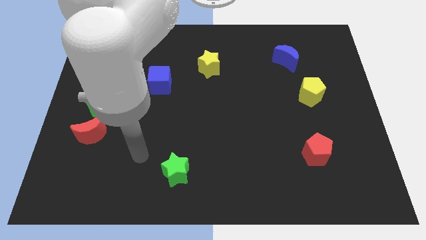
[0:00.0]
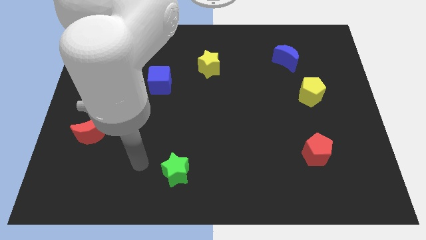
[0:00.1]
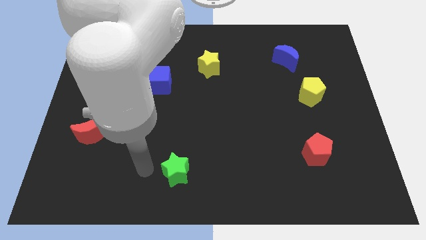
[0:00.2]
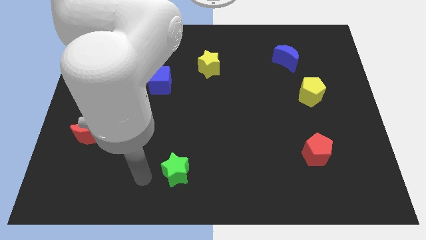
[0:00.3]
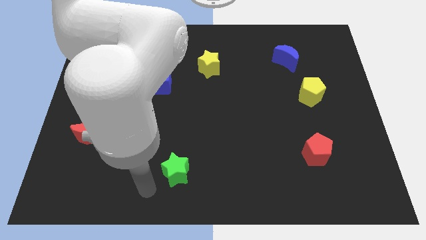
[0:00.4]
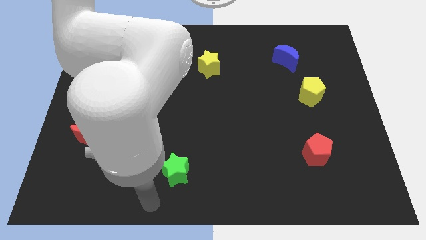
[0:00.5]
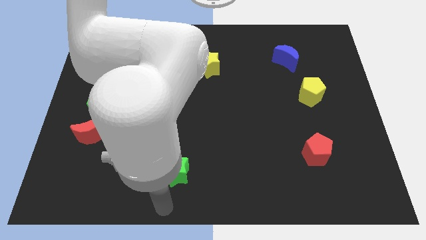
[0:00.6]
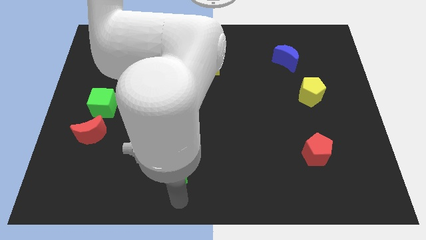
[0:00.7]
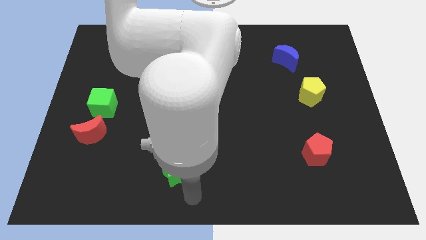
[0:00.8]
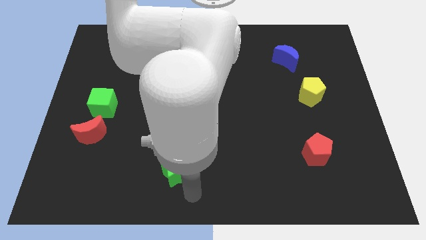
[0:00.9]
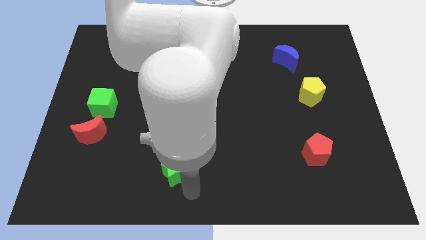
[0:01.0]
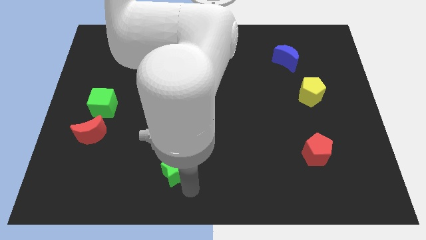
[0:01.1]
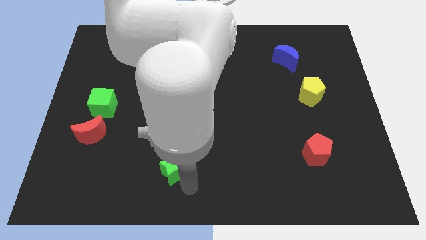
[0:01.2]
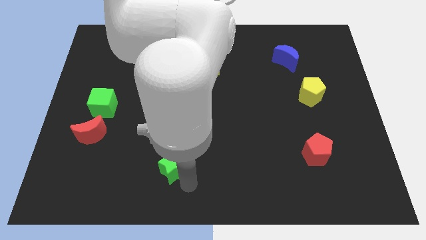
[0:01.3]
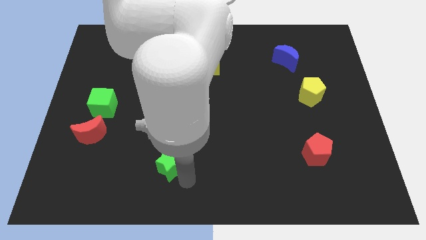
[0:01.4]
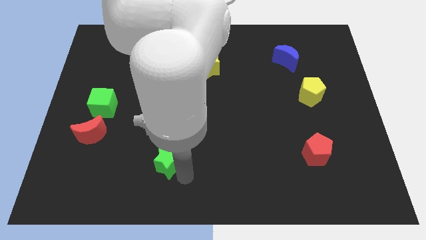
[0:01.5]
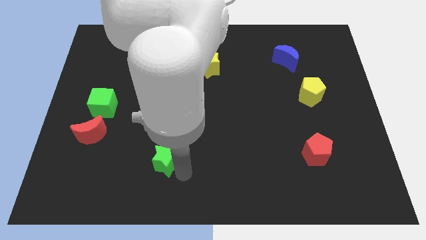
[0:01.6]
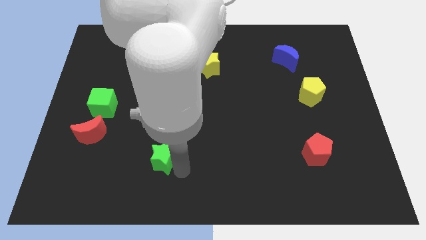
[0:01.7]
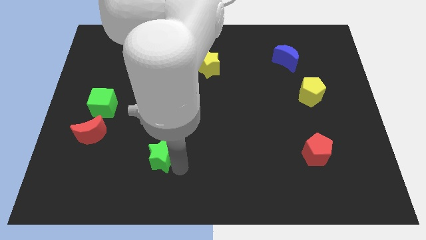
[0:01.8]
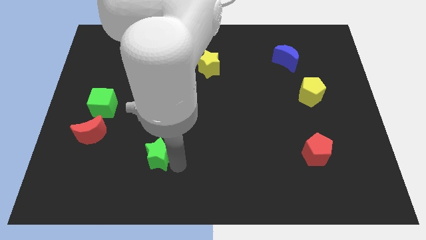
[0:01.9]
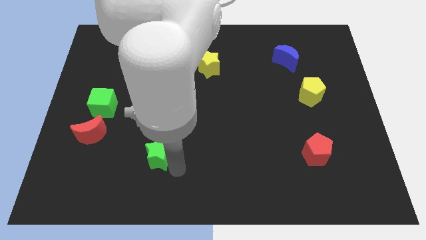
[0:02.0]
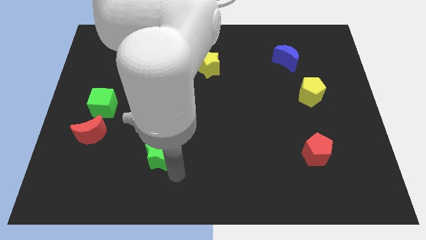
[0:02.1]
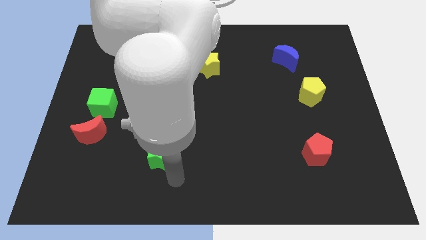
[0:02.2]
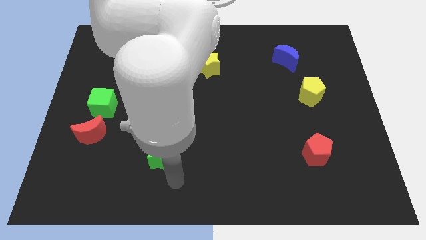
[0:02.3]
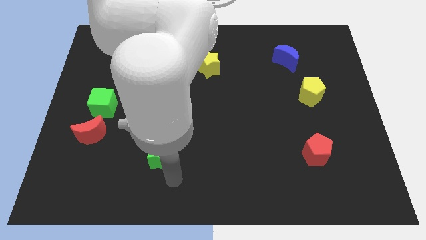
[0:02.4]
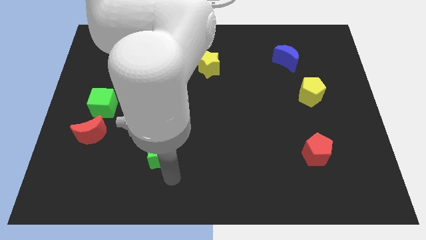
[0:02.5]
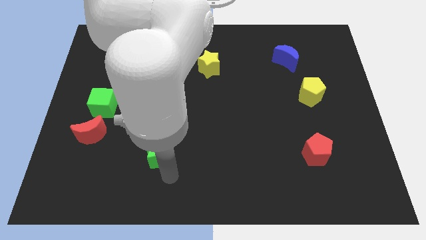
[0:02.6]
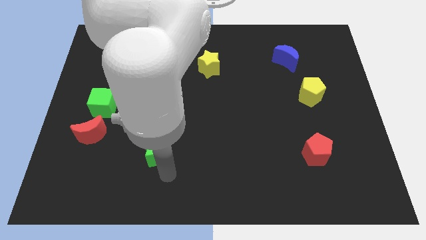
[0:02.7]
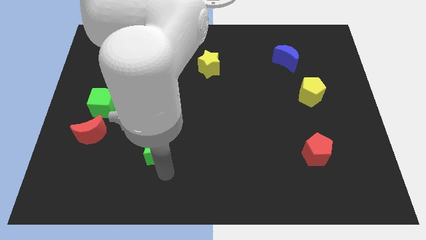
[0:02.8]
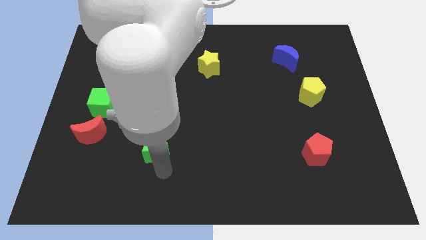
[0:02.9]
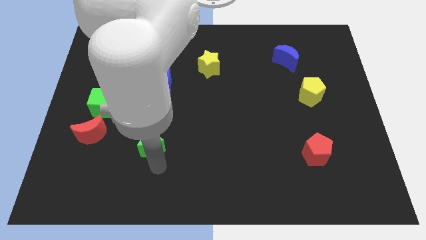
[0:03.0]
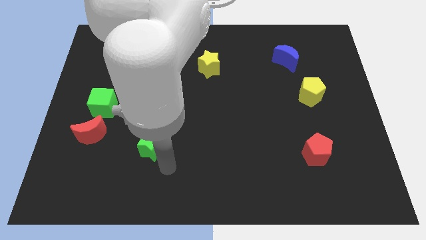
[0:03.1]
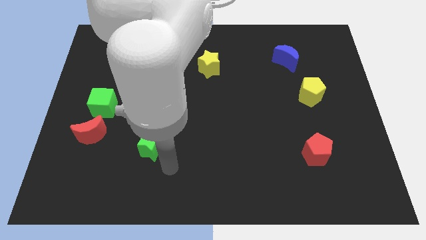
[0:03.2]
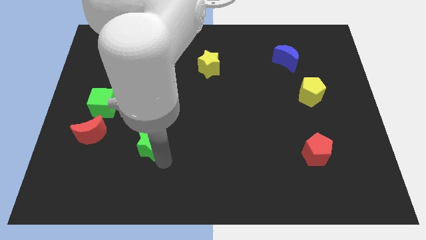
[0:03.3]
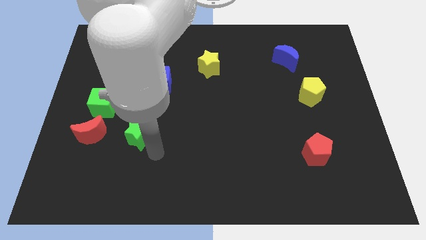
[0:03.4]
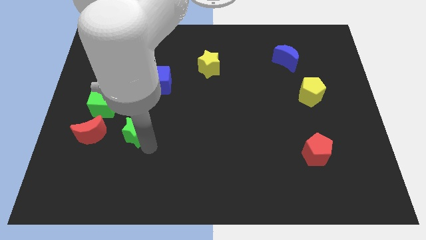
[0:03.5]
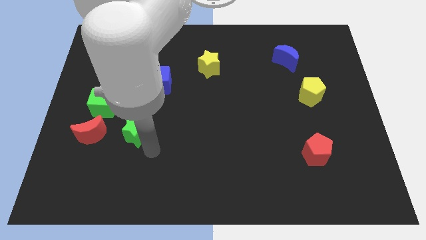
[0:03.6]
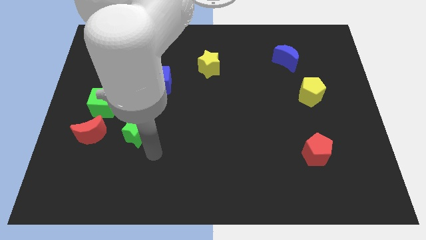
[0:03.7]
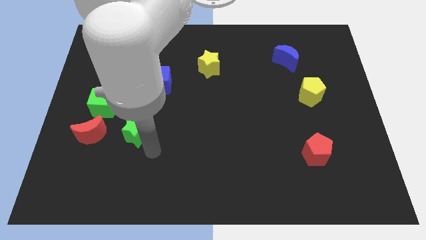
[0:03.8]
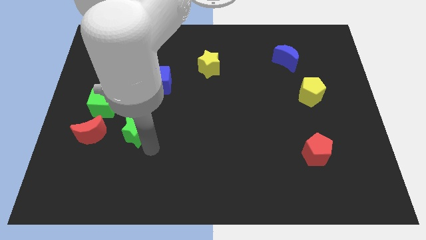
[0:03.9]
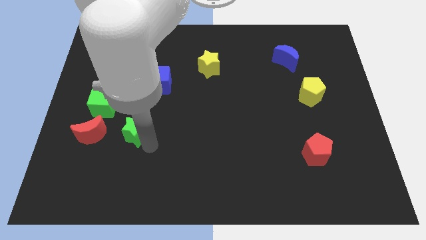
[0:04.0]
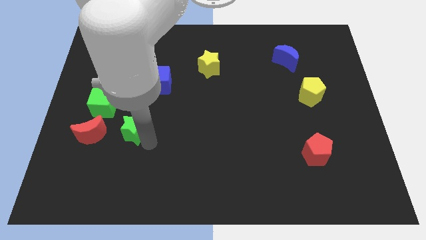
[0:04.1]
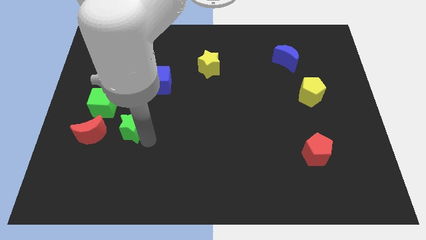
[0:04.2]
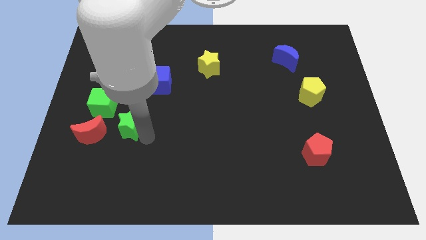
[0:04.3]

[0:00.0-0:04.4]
push the green star to the top right of the red moon

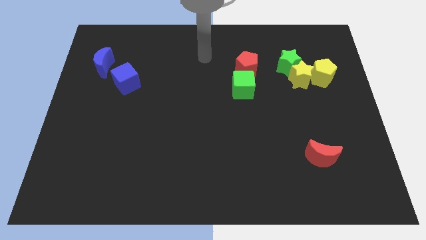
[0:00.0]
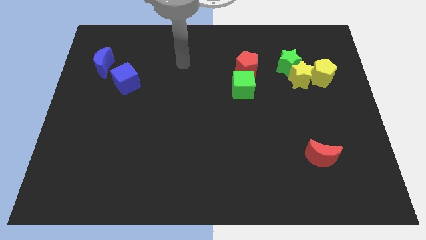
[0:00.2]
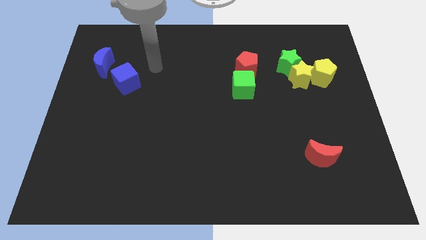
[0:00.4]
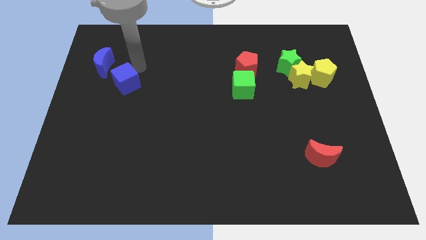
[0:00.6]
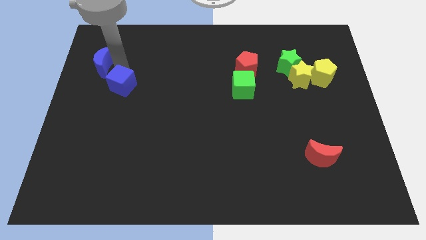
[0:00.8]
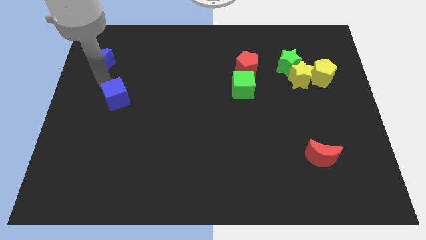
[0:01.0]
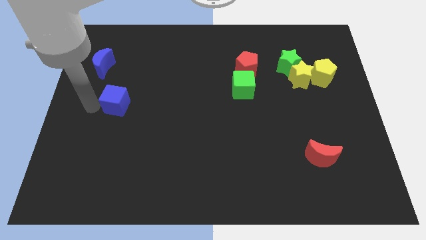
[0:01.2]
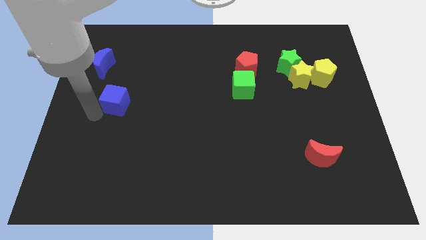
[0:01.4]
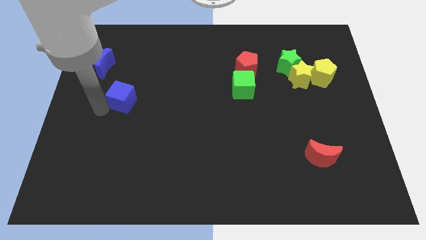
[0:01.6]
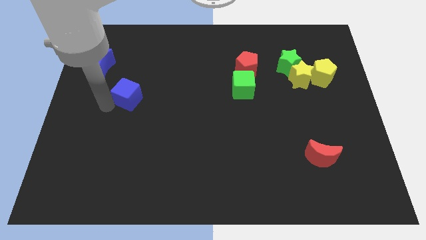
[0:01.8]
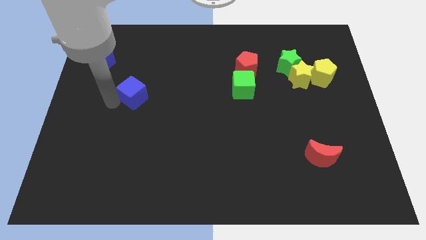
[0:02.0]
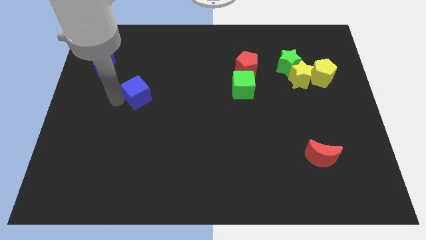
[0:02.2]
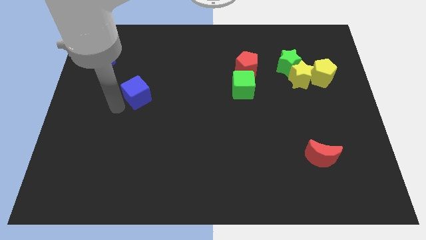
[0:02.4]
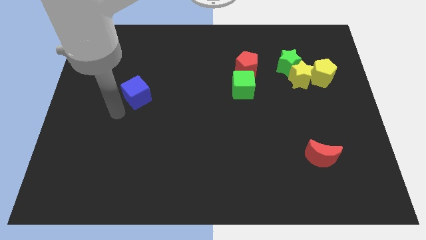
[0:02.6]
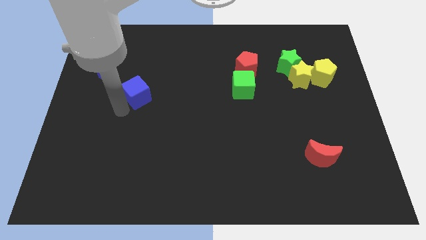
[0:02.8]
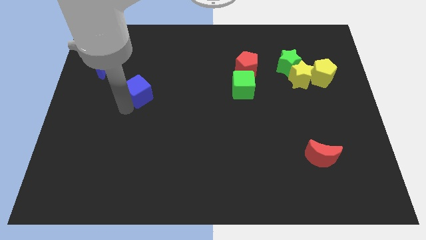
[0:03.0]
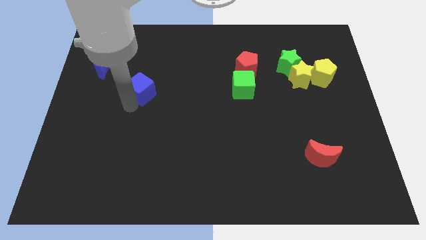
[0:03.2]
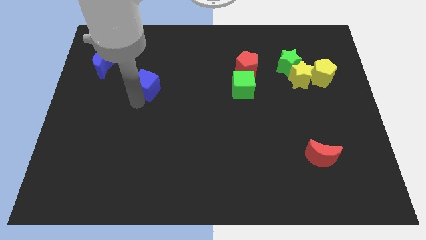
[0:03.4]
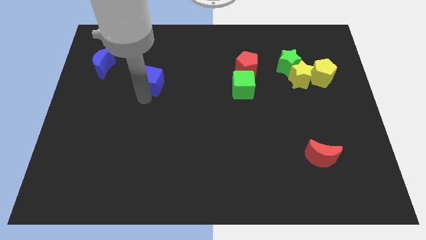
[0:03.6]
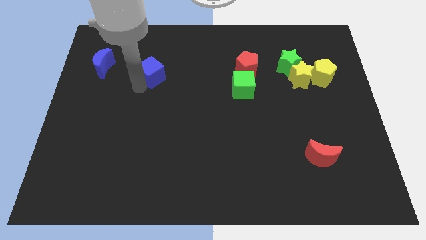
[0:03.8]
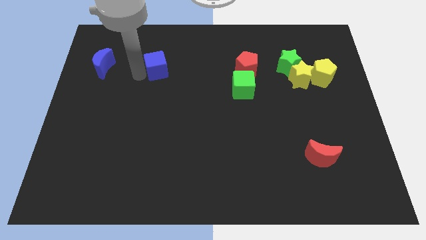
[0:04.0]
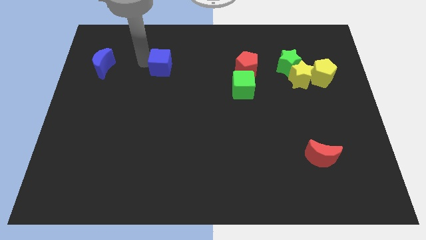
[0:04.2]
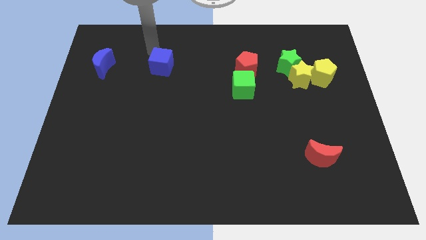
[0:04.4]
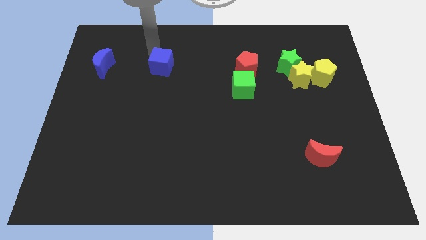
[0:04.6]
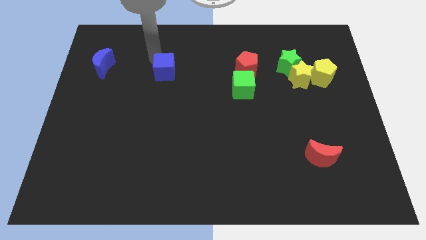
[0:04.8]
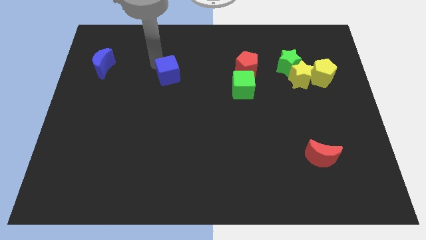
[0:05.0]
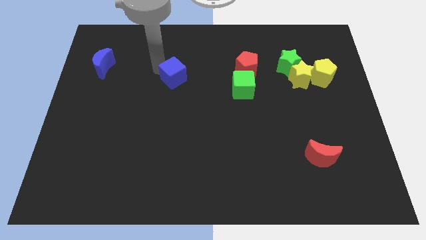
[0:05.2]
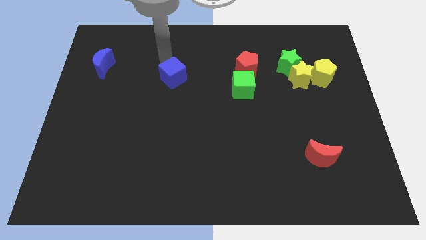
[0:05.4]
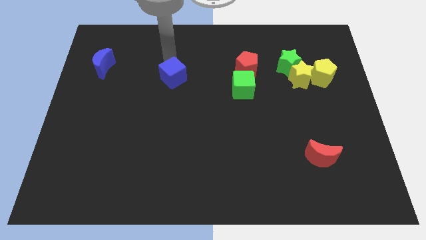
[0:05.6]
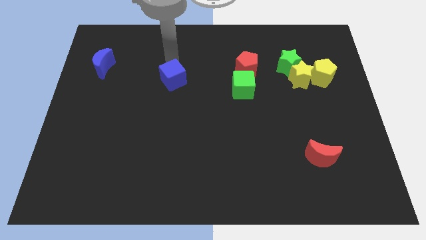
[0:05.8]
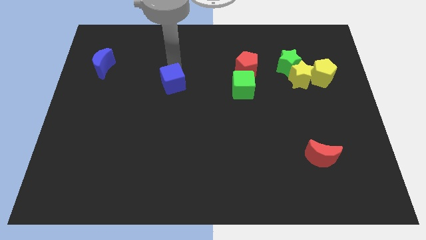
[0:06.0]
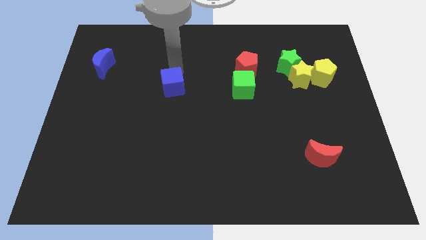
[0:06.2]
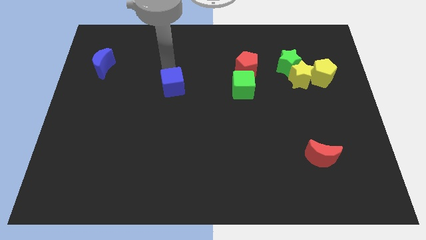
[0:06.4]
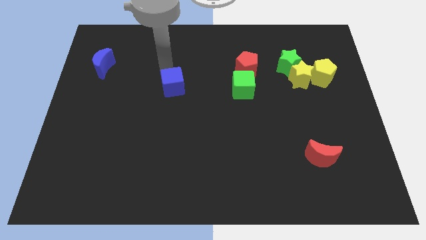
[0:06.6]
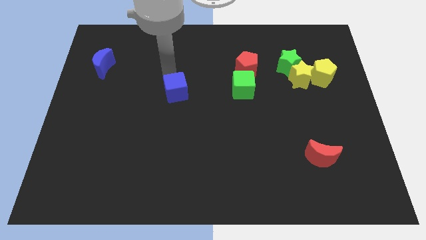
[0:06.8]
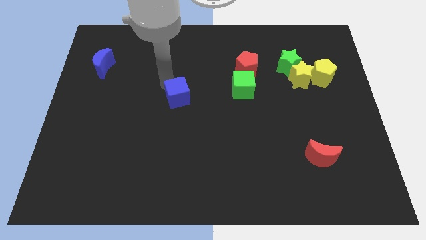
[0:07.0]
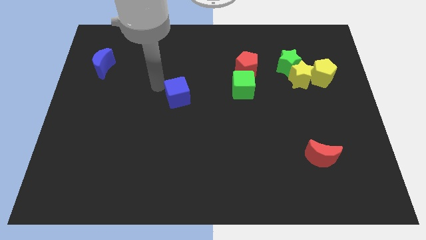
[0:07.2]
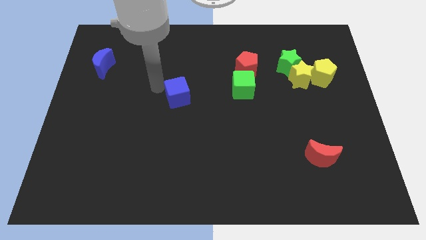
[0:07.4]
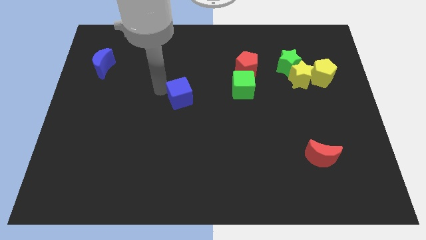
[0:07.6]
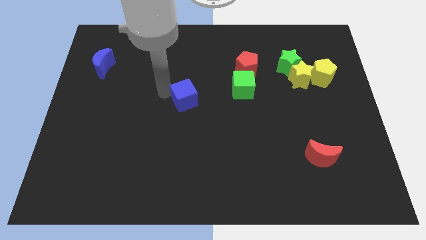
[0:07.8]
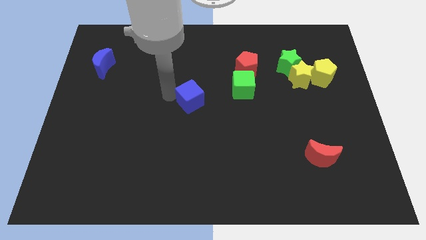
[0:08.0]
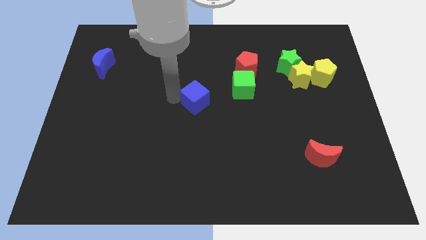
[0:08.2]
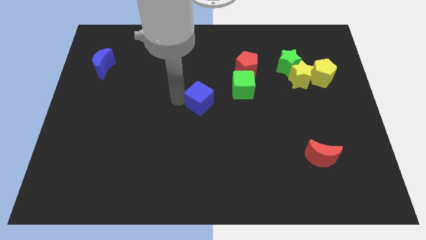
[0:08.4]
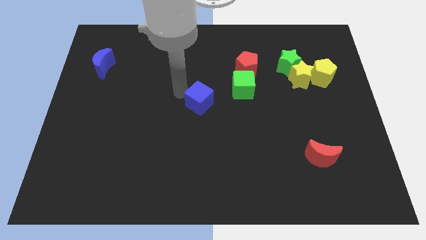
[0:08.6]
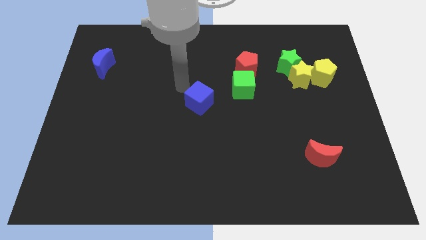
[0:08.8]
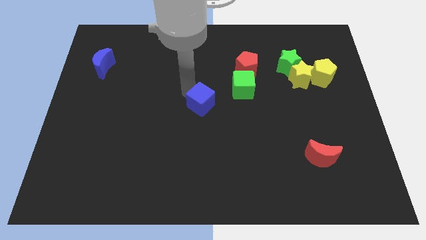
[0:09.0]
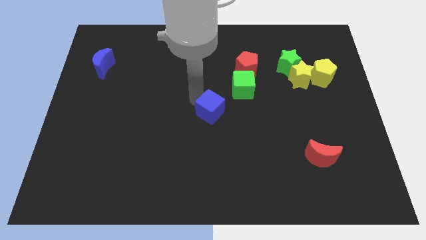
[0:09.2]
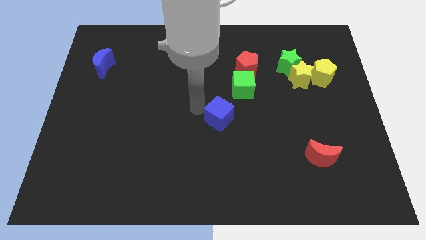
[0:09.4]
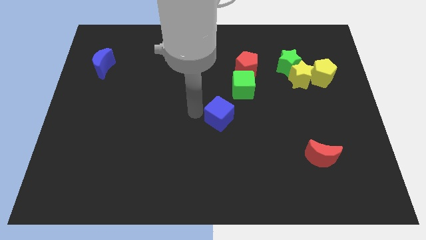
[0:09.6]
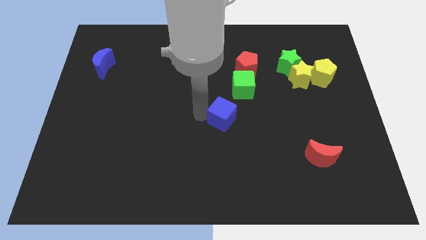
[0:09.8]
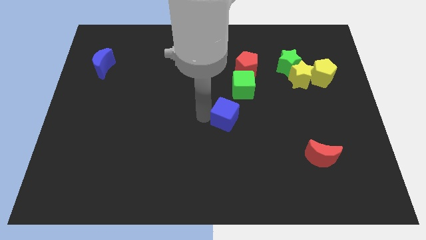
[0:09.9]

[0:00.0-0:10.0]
slide the blue cube to the bottom side of the green cube
